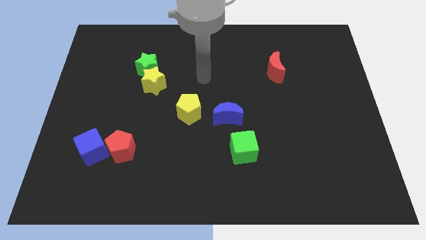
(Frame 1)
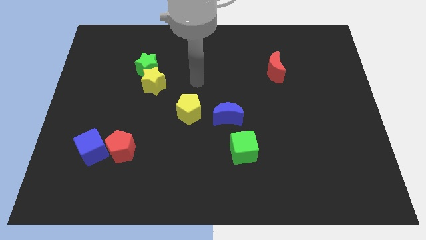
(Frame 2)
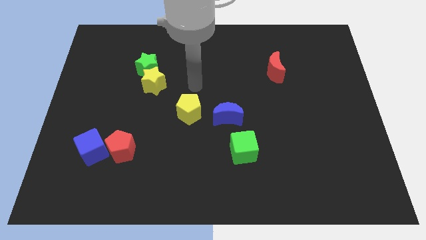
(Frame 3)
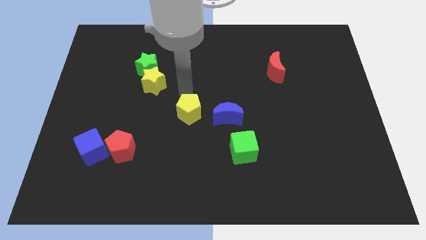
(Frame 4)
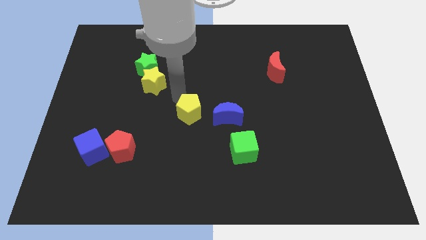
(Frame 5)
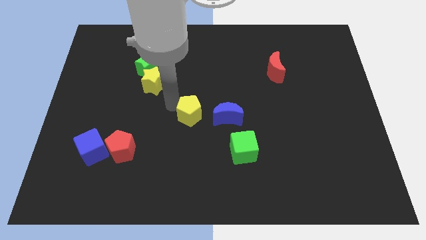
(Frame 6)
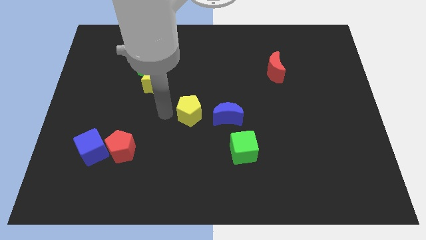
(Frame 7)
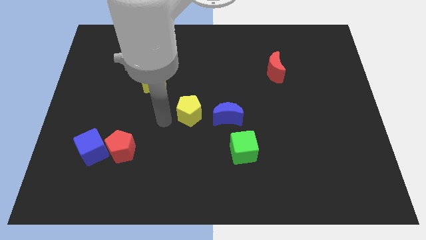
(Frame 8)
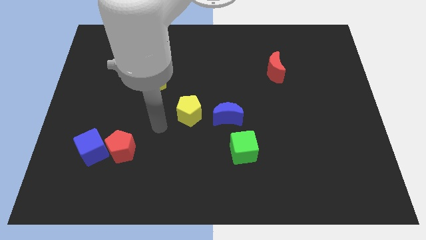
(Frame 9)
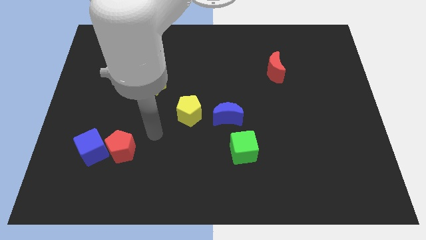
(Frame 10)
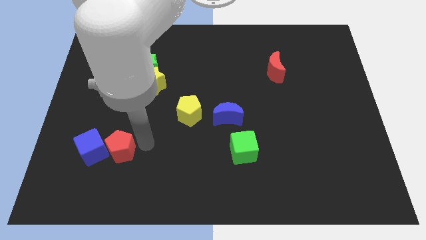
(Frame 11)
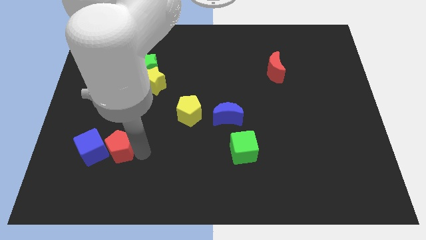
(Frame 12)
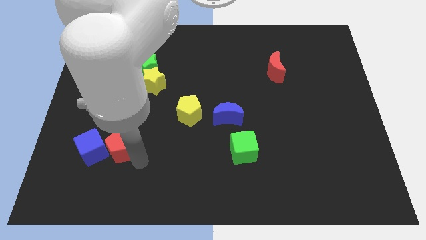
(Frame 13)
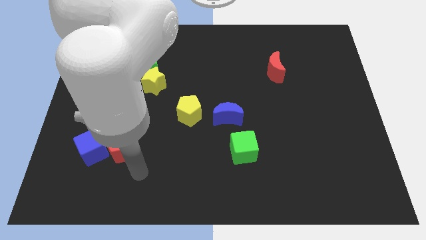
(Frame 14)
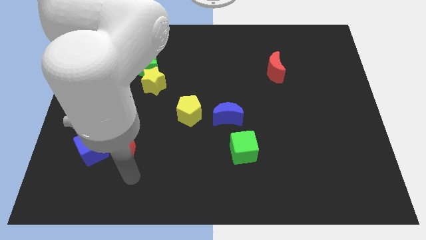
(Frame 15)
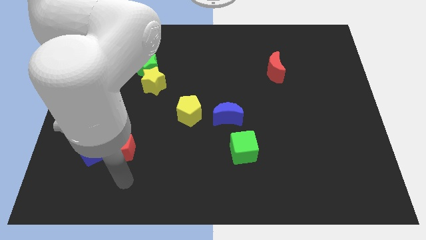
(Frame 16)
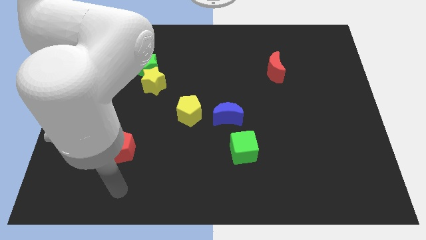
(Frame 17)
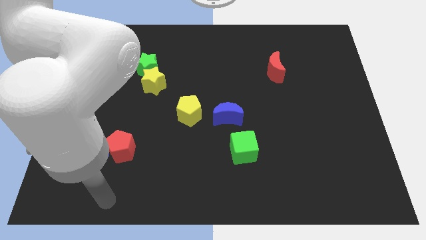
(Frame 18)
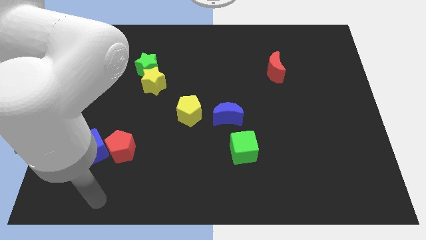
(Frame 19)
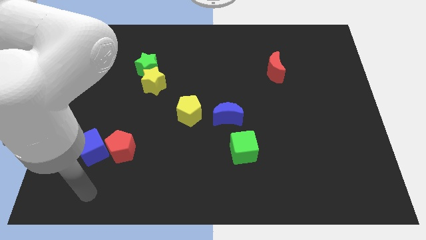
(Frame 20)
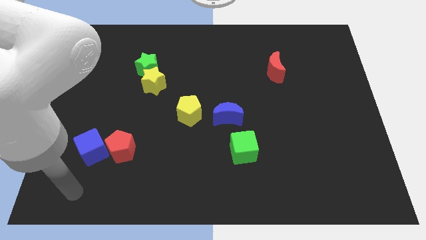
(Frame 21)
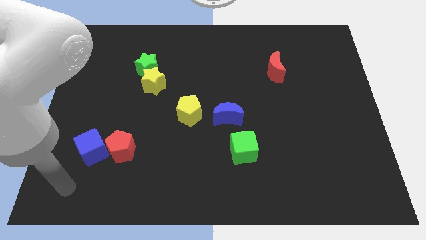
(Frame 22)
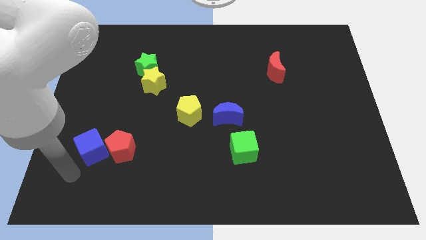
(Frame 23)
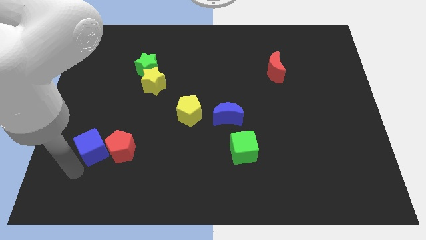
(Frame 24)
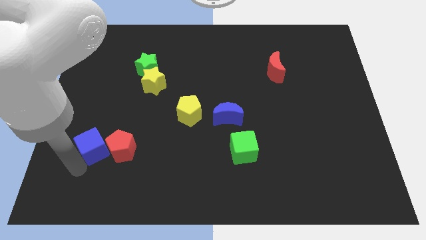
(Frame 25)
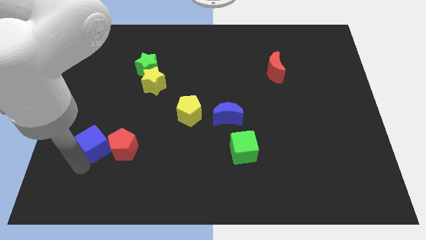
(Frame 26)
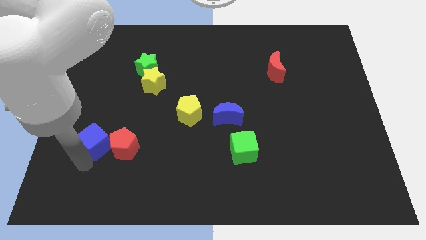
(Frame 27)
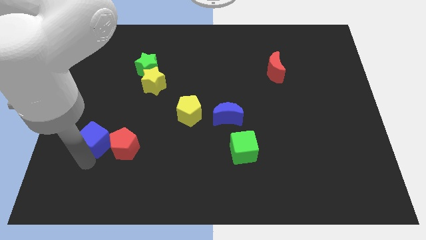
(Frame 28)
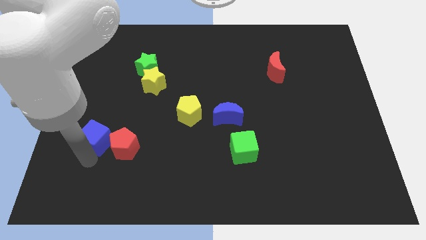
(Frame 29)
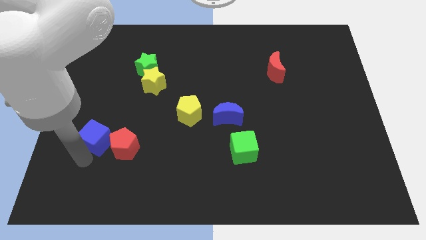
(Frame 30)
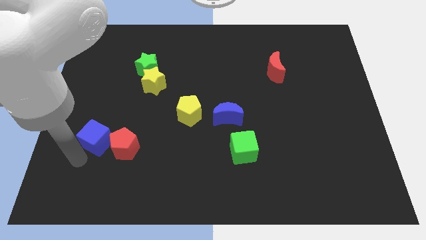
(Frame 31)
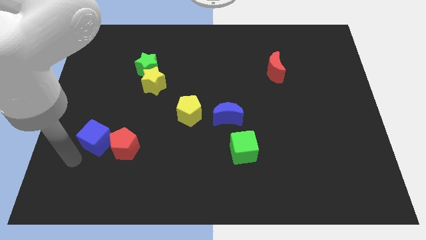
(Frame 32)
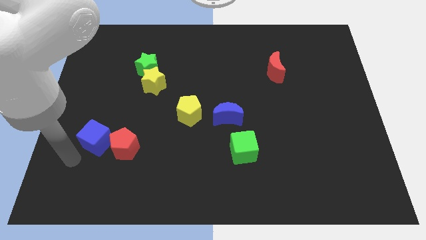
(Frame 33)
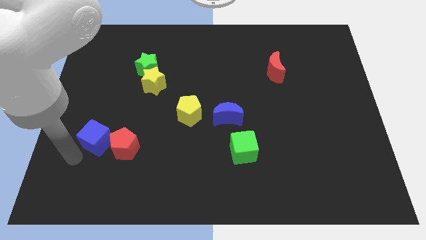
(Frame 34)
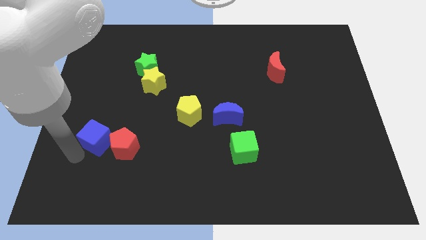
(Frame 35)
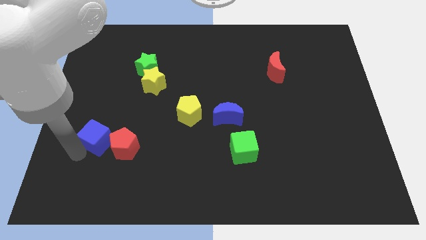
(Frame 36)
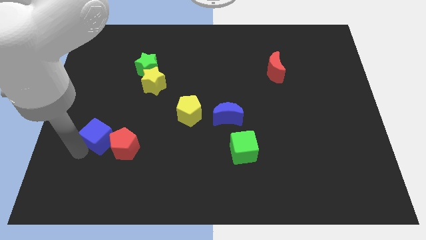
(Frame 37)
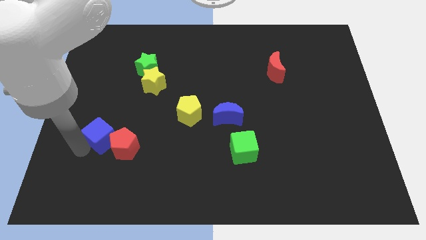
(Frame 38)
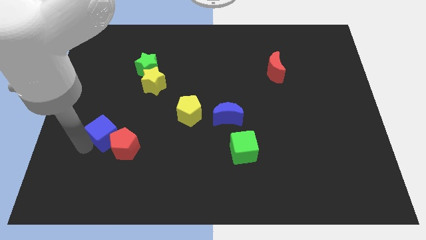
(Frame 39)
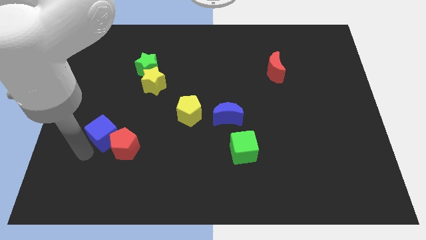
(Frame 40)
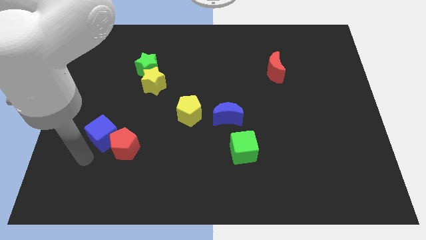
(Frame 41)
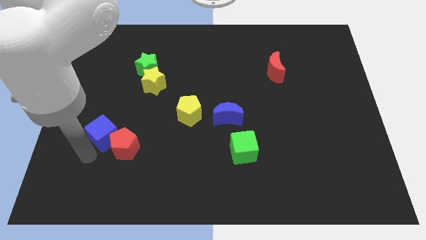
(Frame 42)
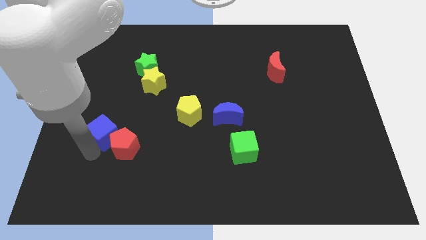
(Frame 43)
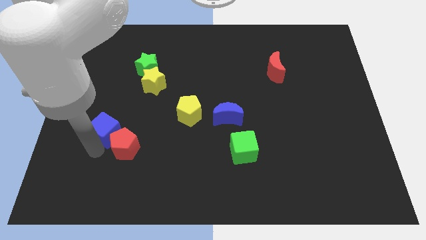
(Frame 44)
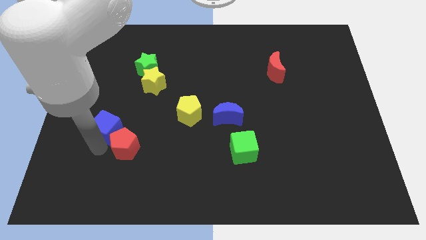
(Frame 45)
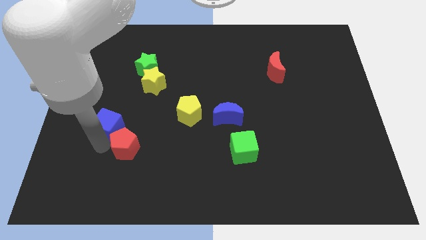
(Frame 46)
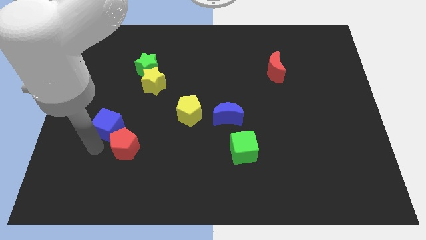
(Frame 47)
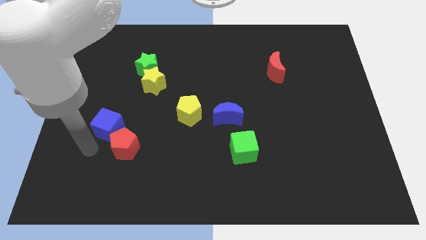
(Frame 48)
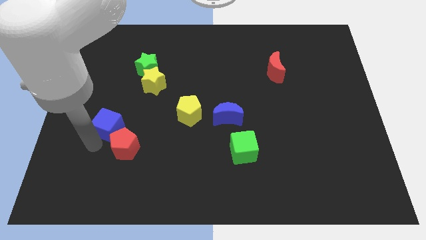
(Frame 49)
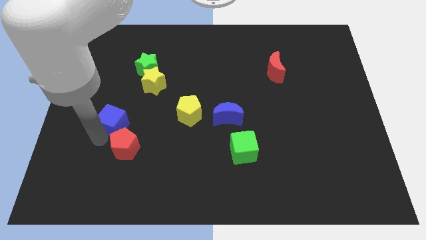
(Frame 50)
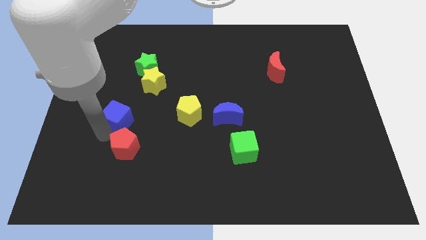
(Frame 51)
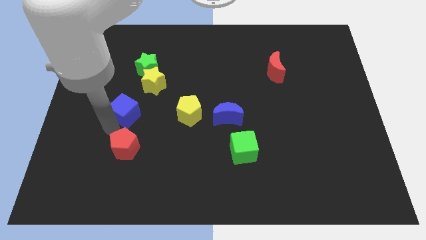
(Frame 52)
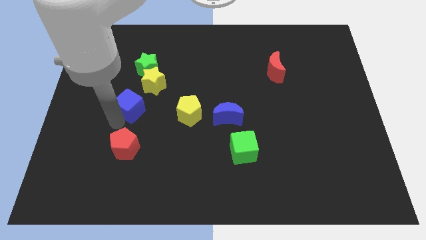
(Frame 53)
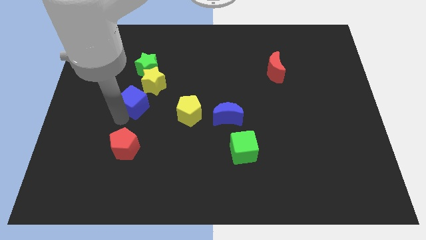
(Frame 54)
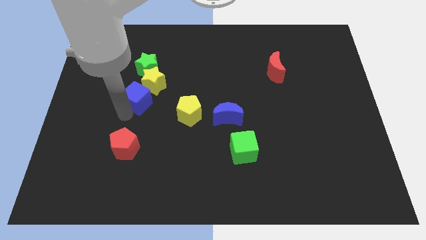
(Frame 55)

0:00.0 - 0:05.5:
move the blue cube towards the yellow star

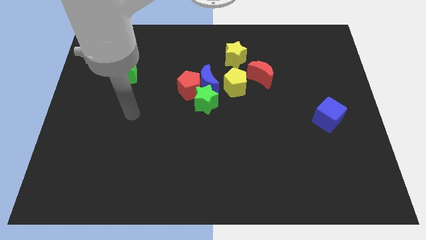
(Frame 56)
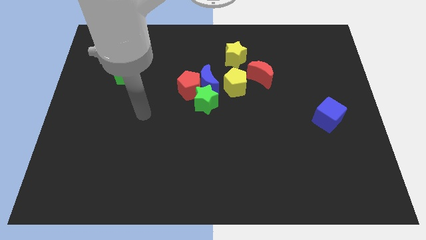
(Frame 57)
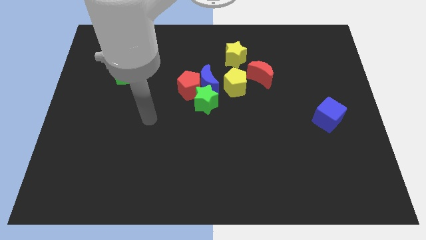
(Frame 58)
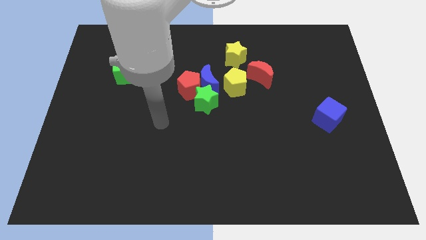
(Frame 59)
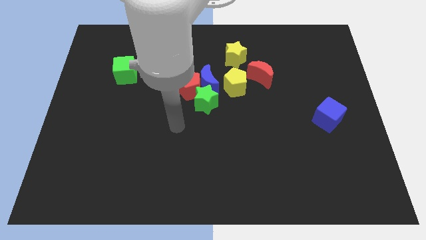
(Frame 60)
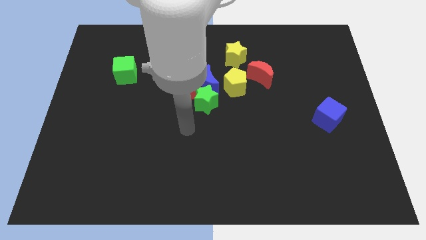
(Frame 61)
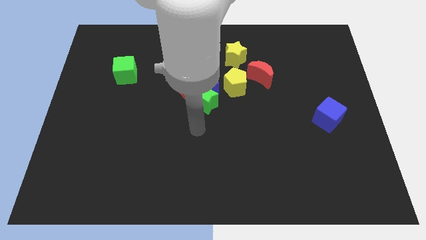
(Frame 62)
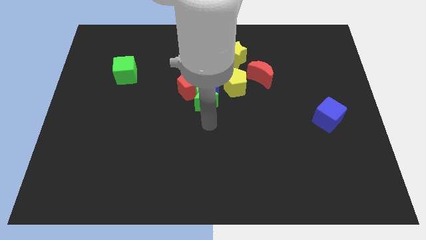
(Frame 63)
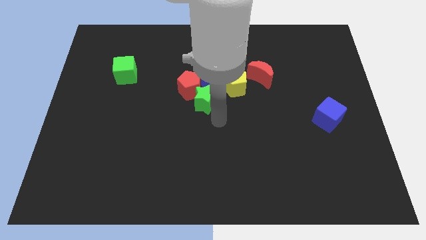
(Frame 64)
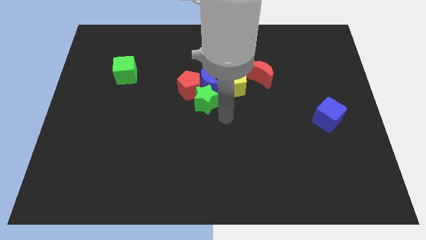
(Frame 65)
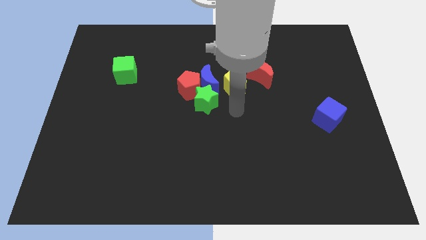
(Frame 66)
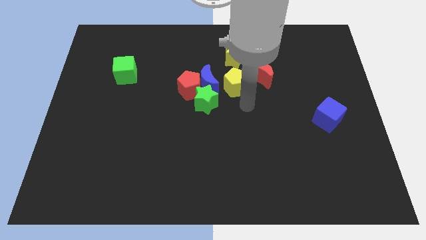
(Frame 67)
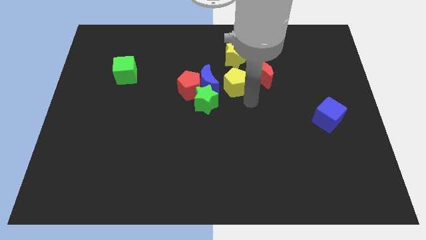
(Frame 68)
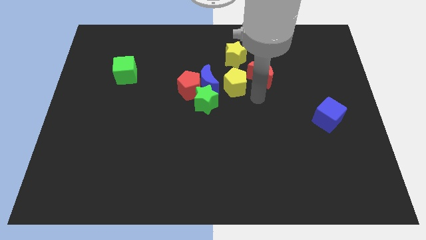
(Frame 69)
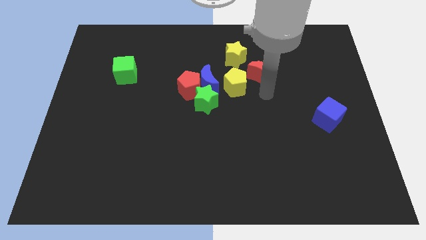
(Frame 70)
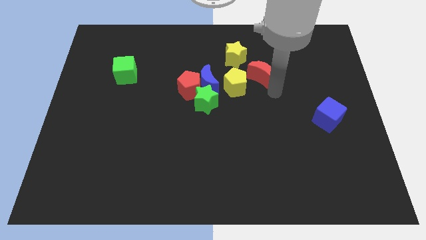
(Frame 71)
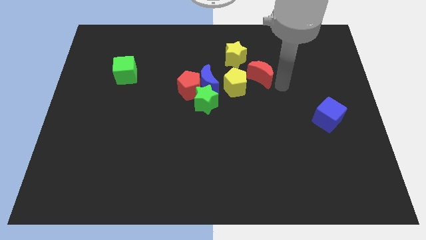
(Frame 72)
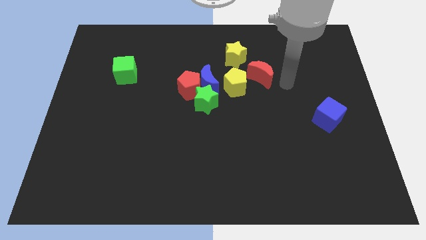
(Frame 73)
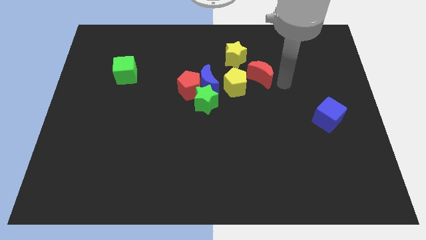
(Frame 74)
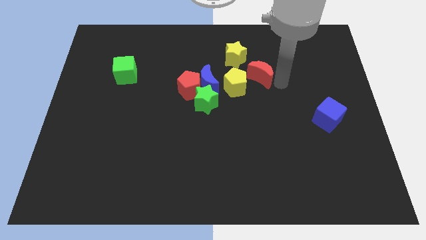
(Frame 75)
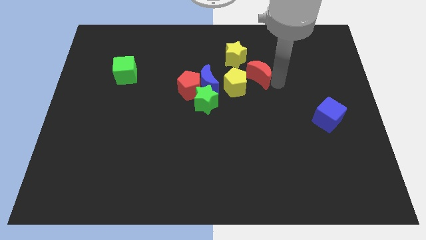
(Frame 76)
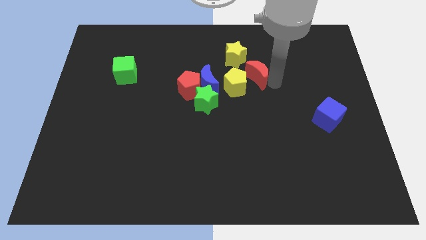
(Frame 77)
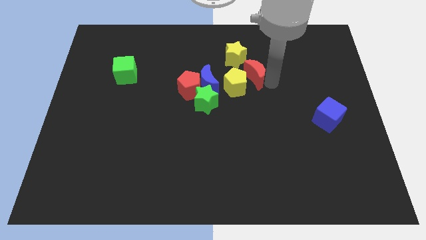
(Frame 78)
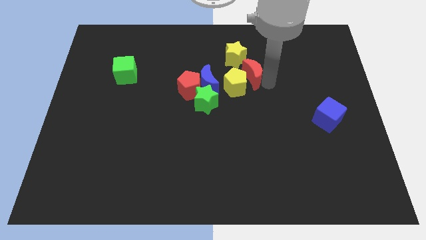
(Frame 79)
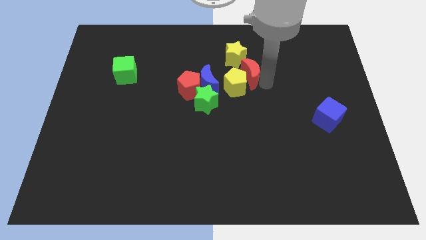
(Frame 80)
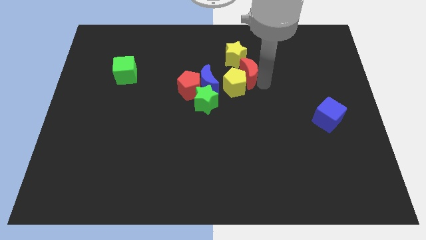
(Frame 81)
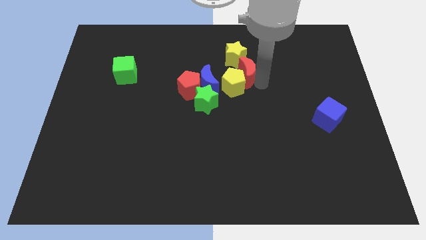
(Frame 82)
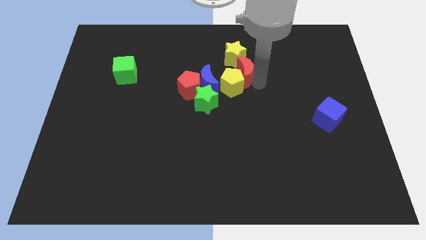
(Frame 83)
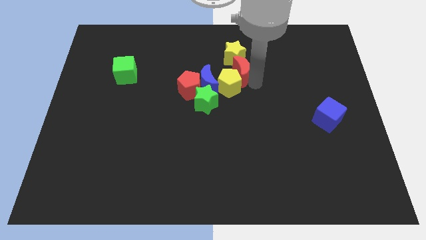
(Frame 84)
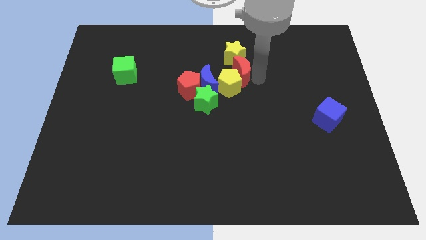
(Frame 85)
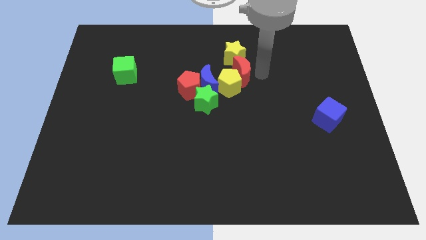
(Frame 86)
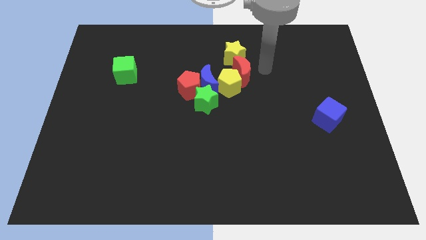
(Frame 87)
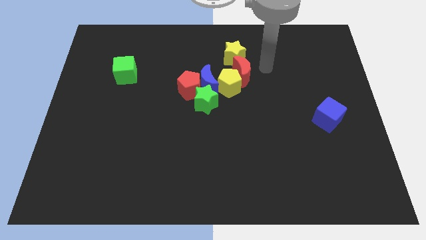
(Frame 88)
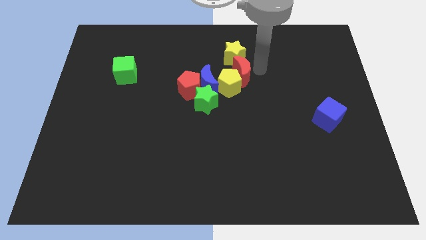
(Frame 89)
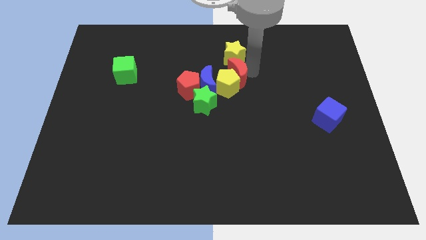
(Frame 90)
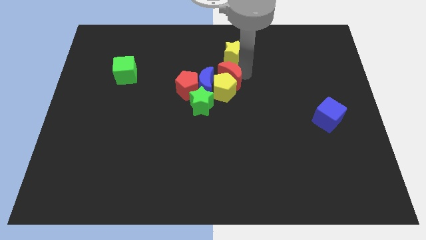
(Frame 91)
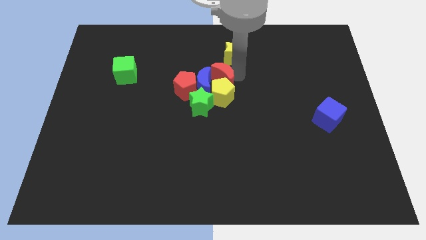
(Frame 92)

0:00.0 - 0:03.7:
move the red moon next to the blue moon
